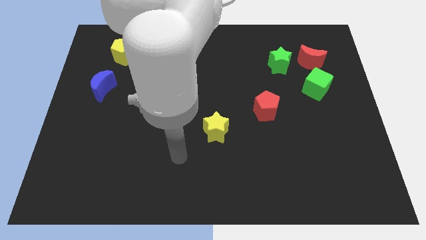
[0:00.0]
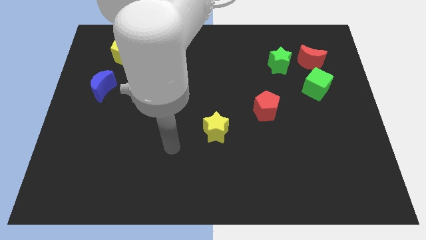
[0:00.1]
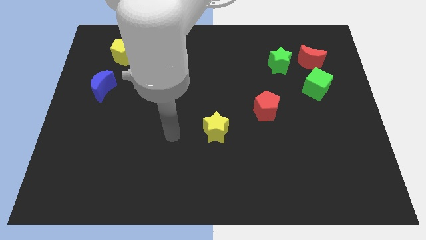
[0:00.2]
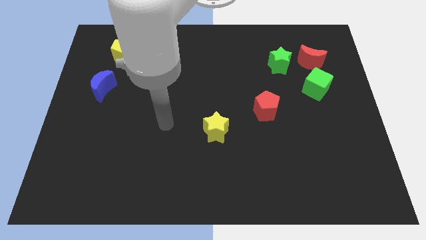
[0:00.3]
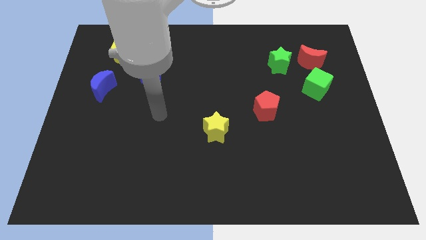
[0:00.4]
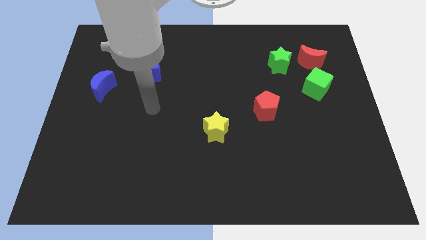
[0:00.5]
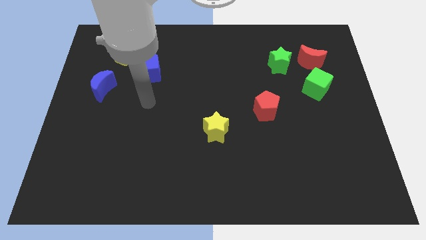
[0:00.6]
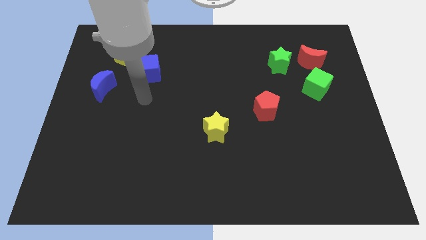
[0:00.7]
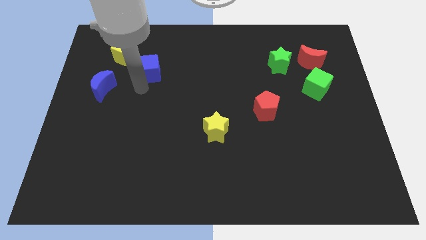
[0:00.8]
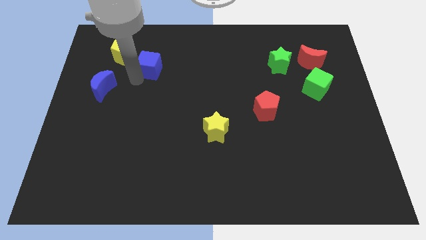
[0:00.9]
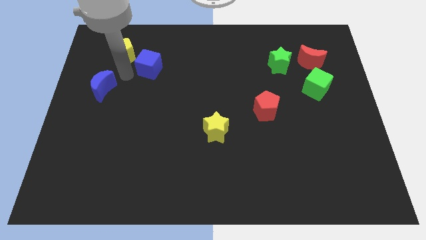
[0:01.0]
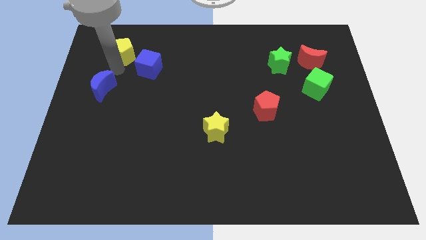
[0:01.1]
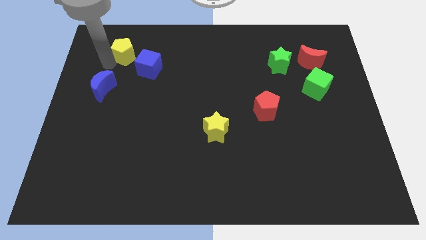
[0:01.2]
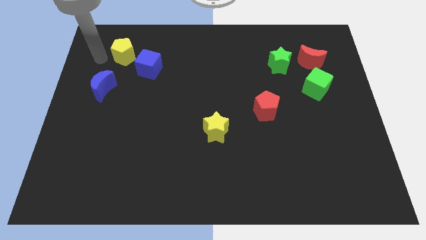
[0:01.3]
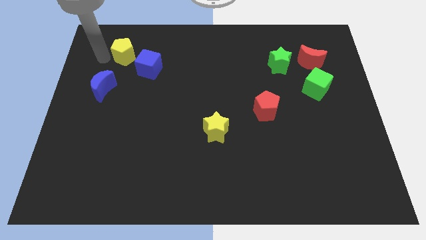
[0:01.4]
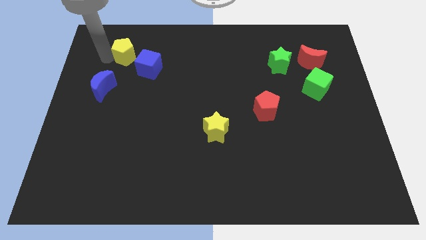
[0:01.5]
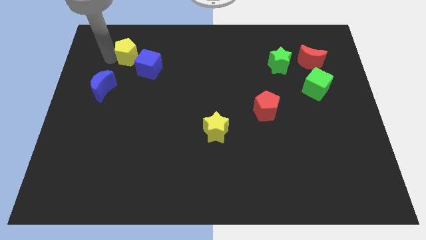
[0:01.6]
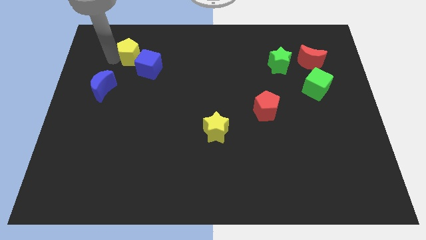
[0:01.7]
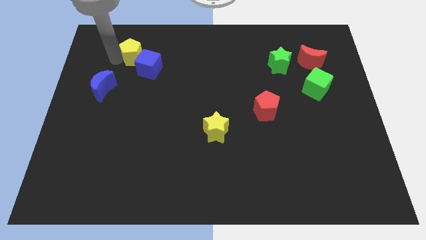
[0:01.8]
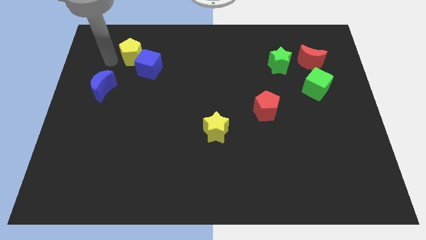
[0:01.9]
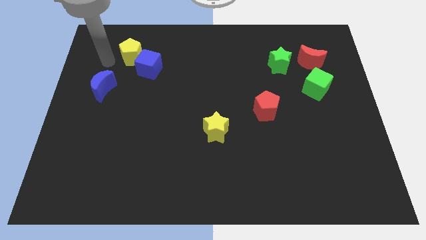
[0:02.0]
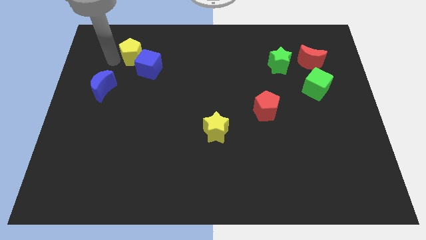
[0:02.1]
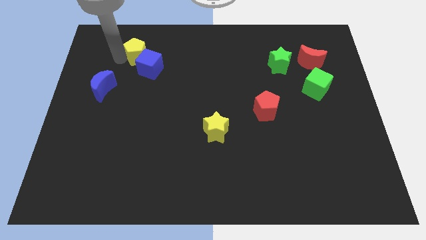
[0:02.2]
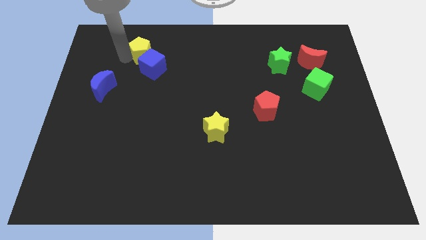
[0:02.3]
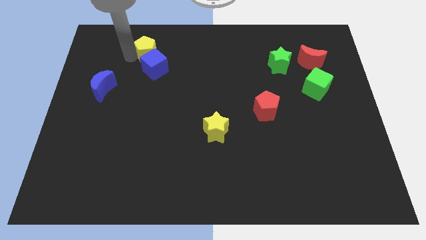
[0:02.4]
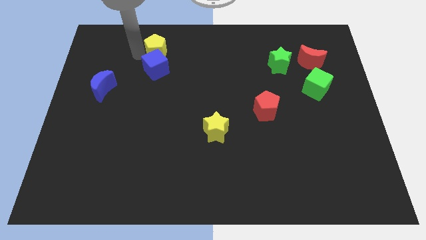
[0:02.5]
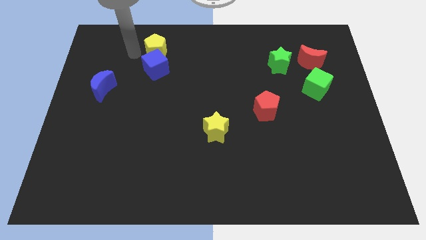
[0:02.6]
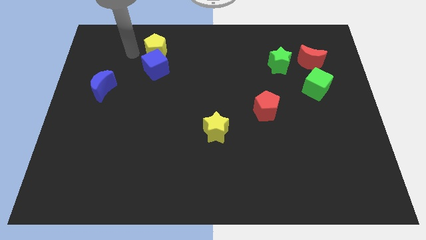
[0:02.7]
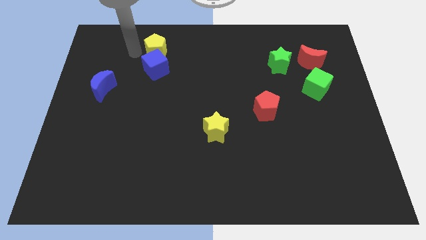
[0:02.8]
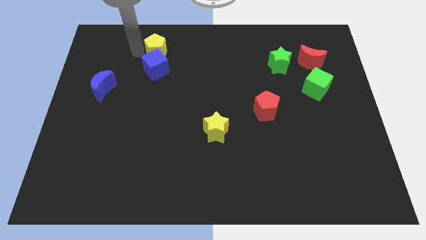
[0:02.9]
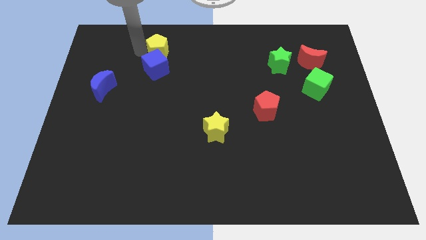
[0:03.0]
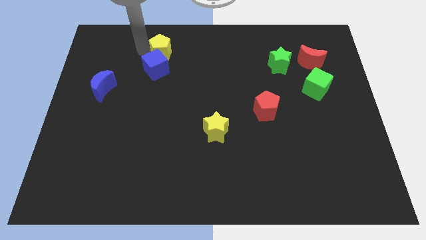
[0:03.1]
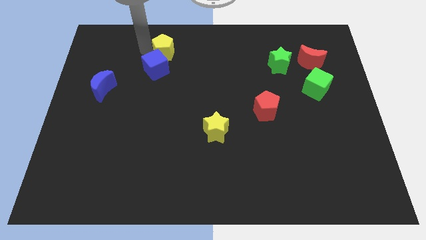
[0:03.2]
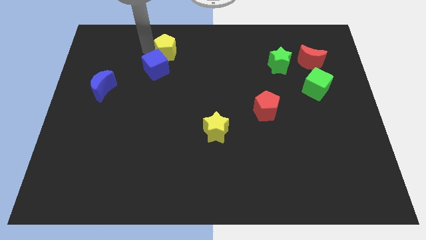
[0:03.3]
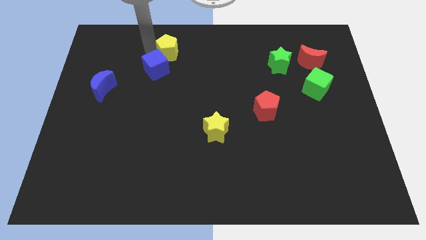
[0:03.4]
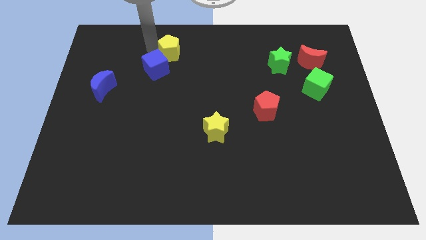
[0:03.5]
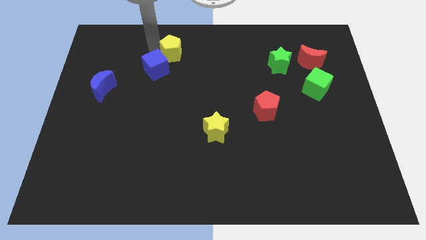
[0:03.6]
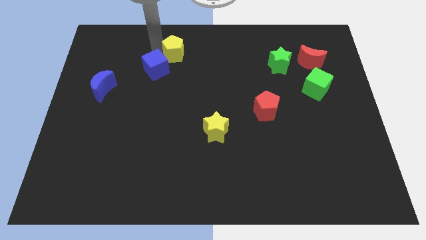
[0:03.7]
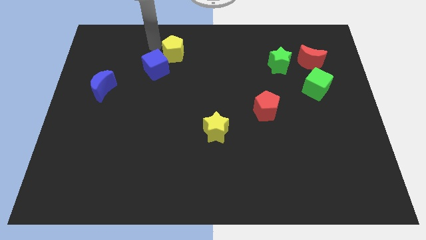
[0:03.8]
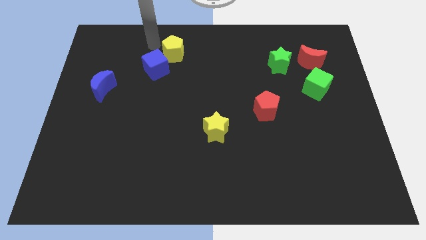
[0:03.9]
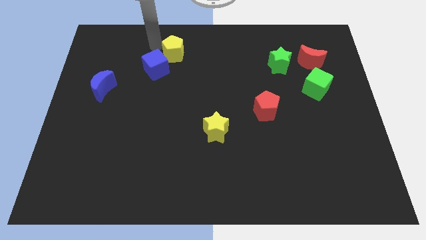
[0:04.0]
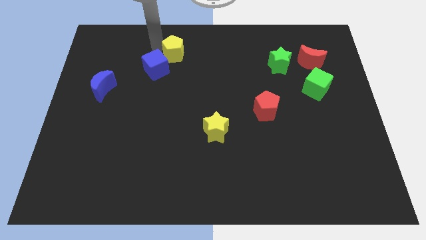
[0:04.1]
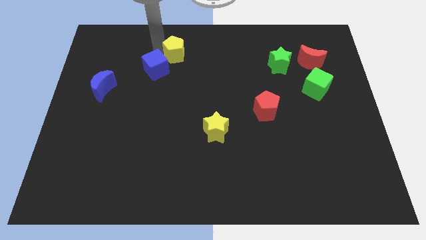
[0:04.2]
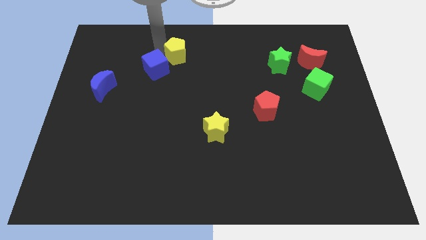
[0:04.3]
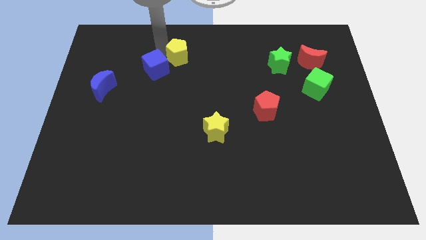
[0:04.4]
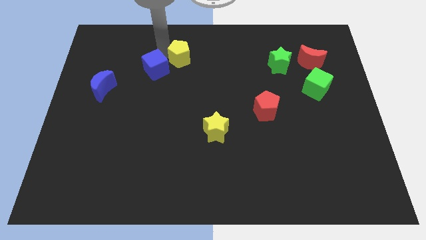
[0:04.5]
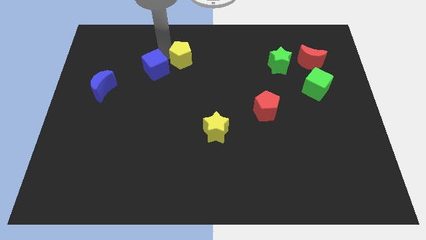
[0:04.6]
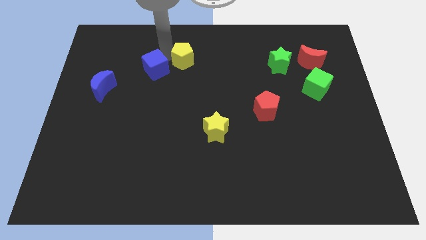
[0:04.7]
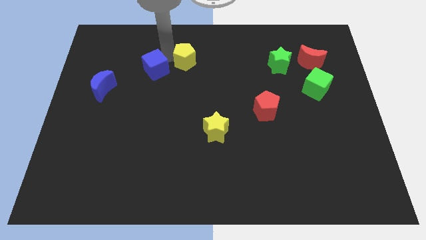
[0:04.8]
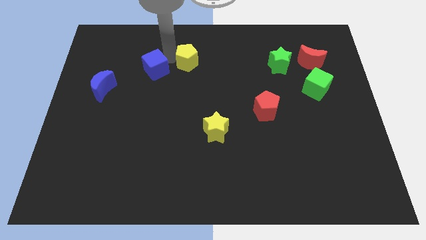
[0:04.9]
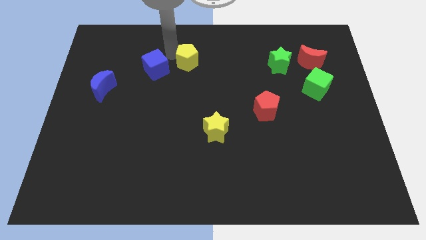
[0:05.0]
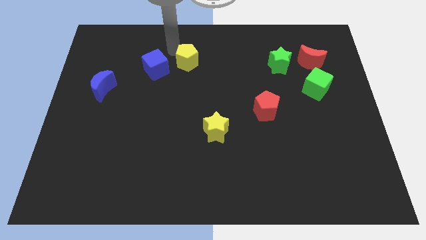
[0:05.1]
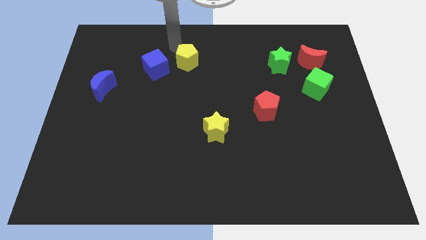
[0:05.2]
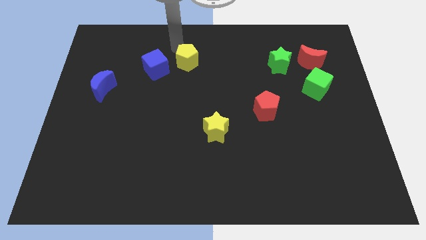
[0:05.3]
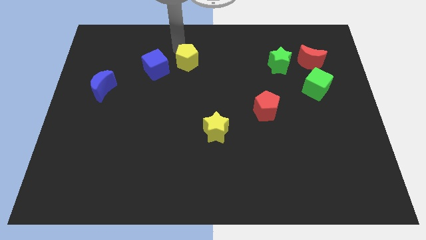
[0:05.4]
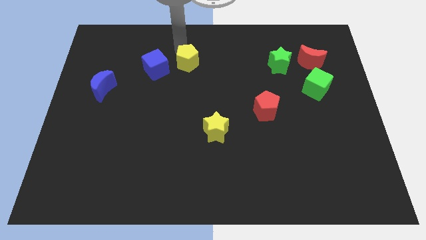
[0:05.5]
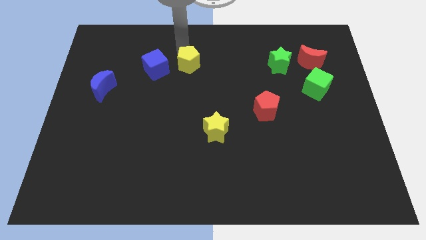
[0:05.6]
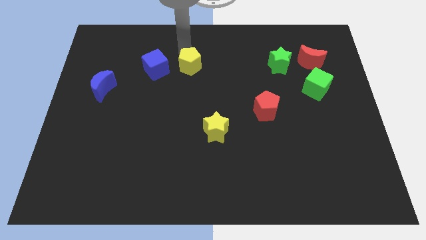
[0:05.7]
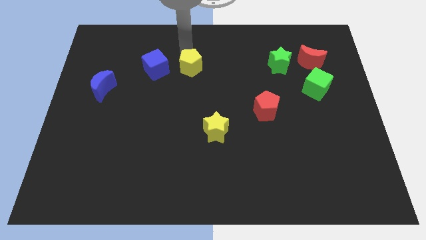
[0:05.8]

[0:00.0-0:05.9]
slide the yellow pentagon to the middle
